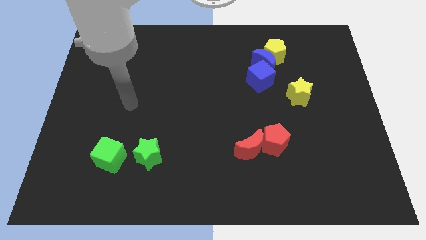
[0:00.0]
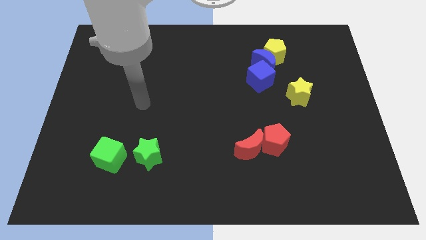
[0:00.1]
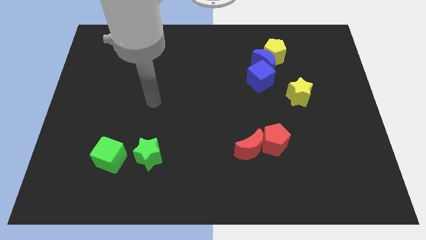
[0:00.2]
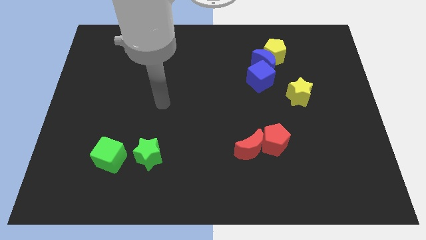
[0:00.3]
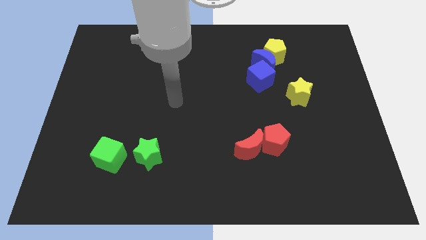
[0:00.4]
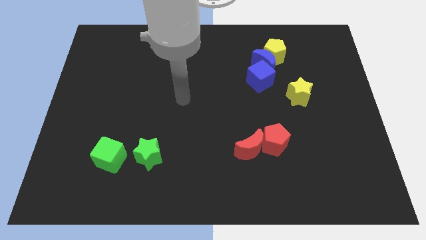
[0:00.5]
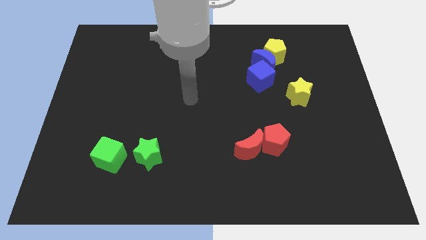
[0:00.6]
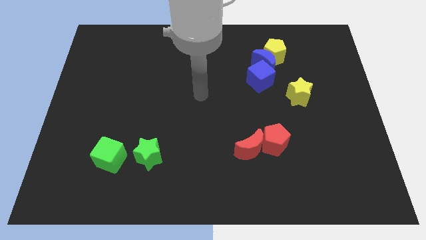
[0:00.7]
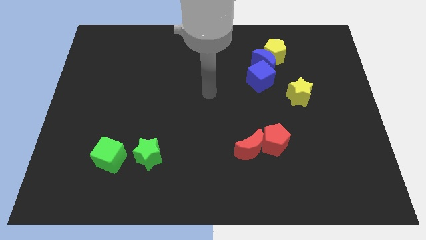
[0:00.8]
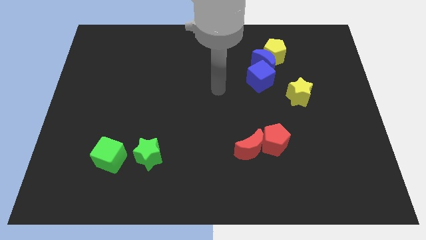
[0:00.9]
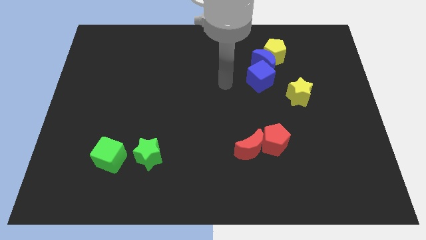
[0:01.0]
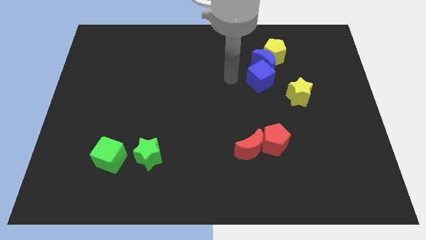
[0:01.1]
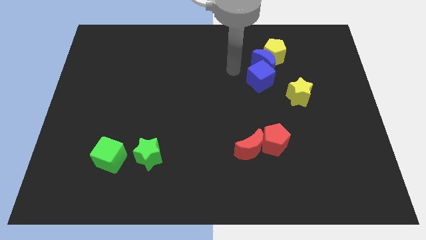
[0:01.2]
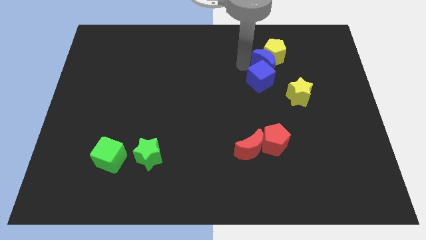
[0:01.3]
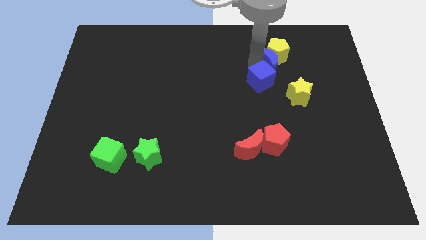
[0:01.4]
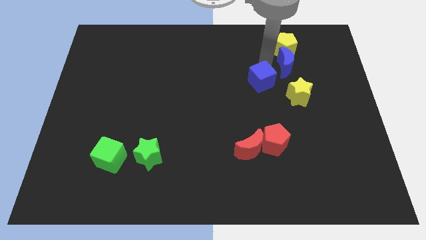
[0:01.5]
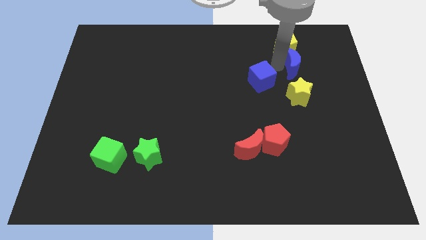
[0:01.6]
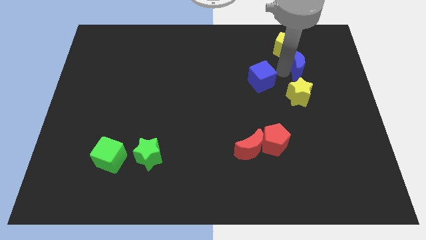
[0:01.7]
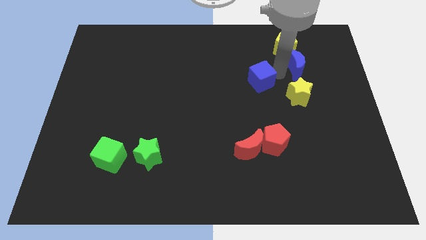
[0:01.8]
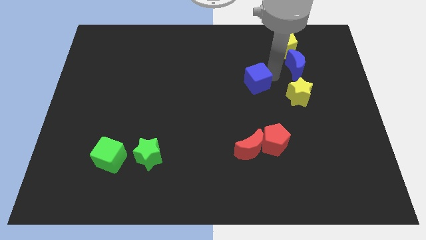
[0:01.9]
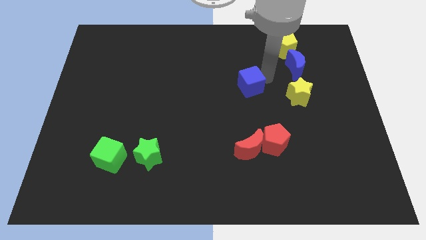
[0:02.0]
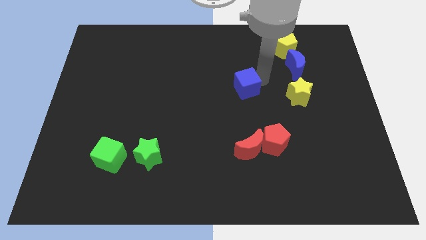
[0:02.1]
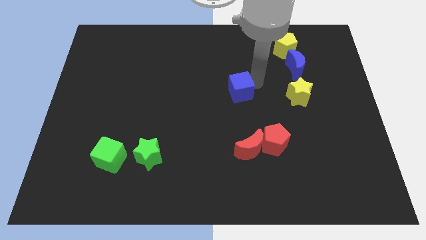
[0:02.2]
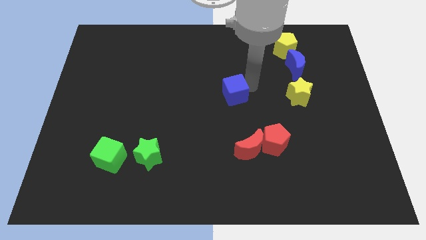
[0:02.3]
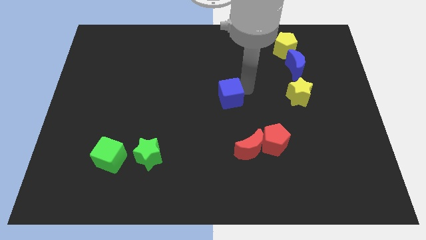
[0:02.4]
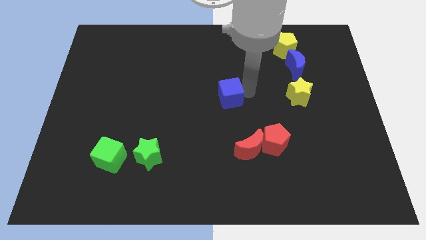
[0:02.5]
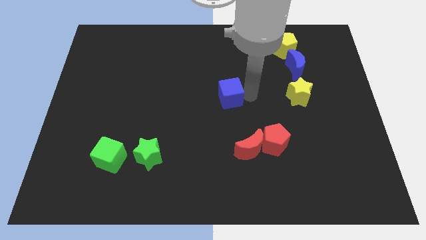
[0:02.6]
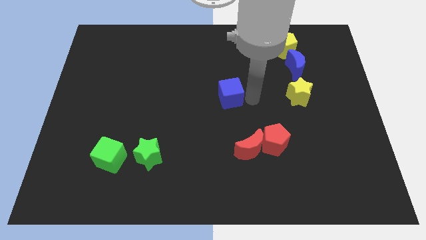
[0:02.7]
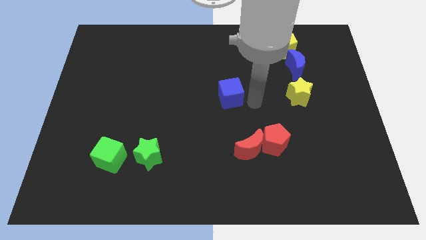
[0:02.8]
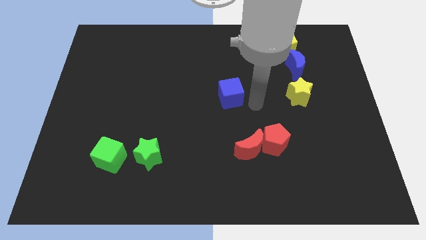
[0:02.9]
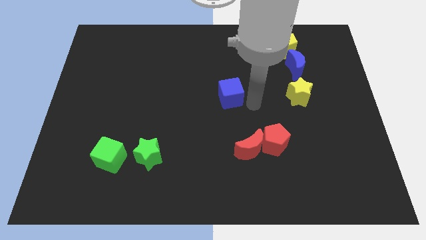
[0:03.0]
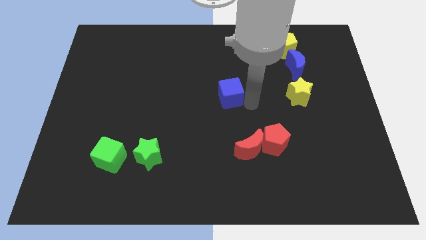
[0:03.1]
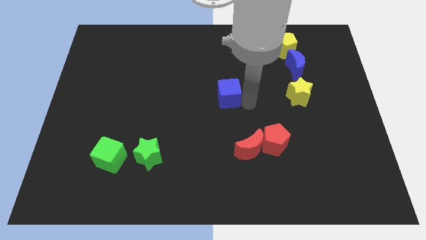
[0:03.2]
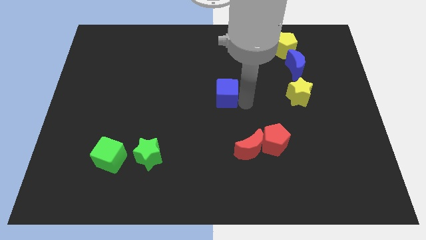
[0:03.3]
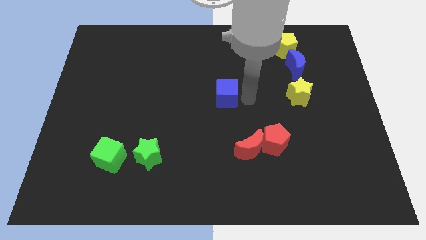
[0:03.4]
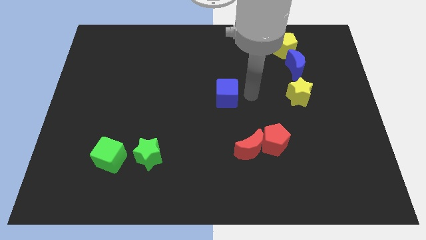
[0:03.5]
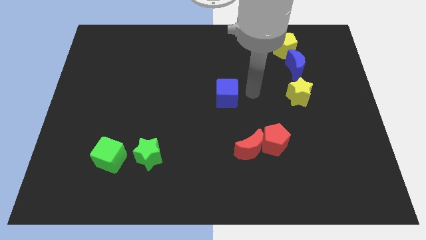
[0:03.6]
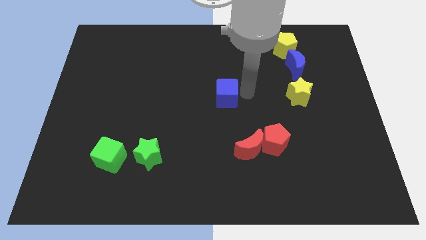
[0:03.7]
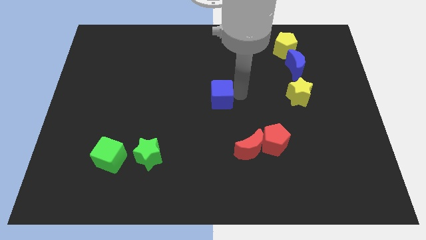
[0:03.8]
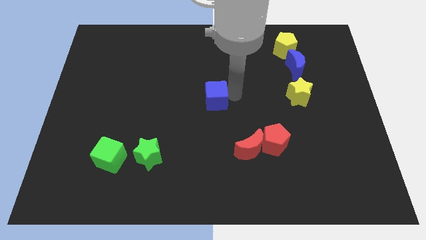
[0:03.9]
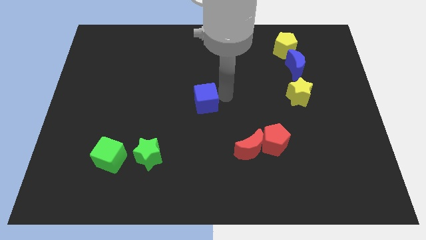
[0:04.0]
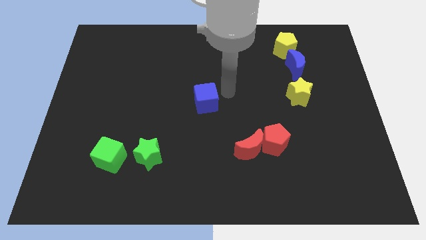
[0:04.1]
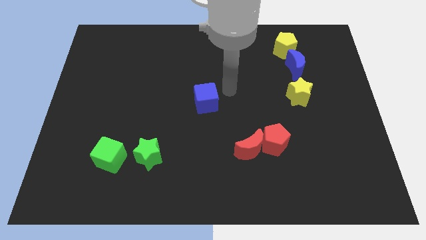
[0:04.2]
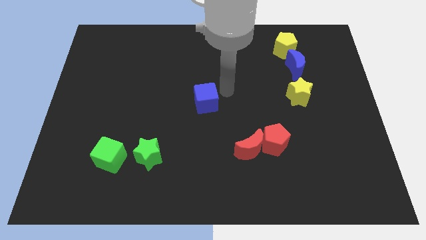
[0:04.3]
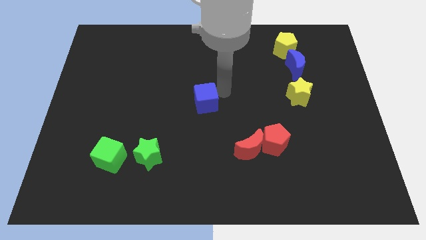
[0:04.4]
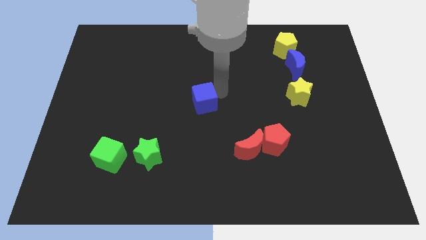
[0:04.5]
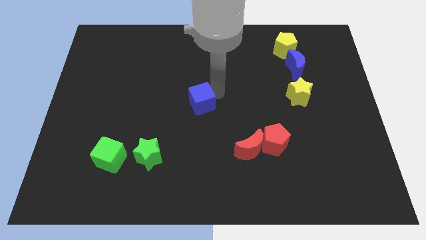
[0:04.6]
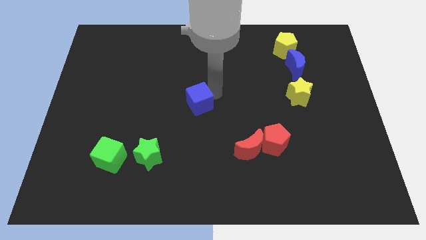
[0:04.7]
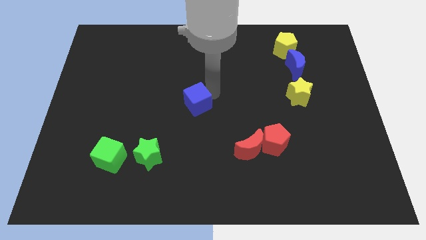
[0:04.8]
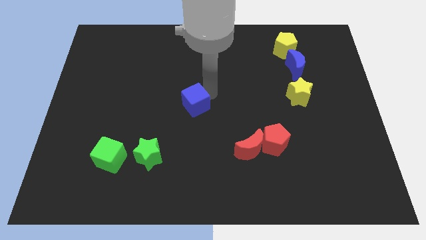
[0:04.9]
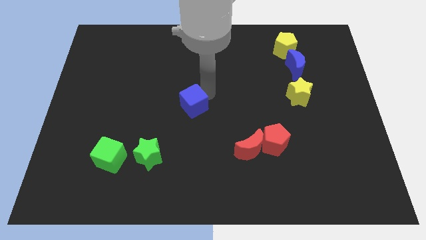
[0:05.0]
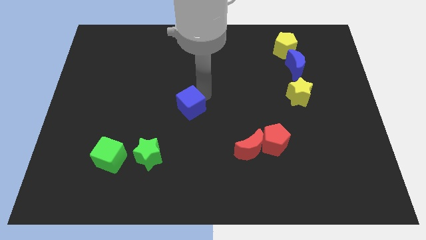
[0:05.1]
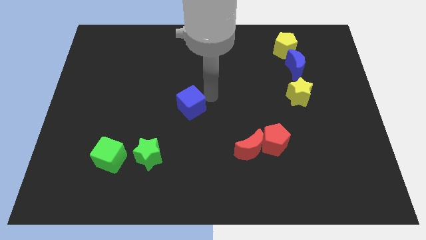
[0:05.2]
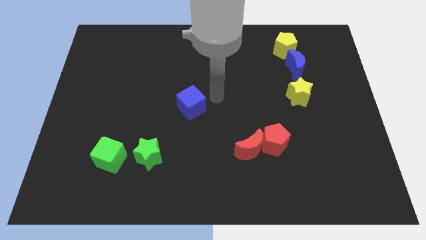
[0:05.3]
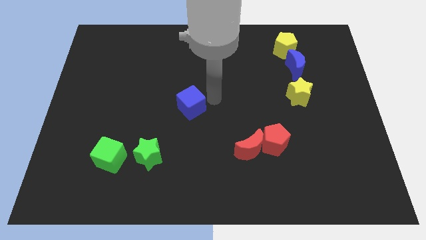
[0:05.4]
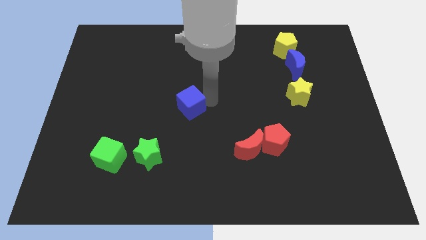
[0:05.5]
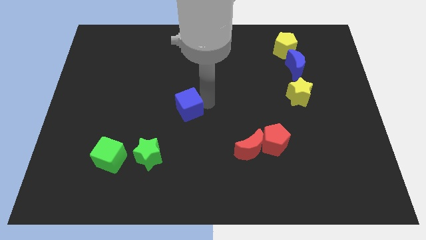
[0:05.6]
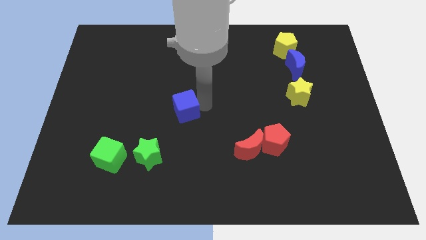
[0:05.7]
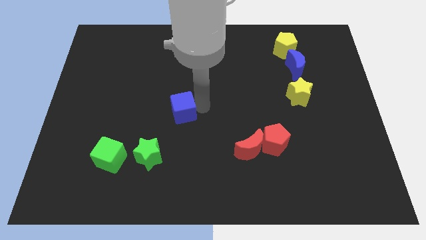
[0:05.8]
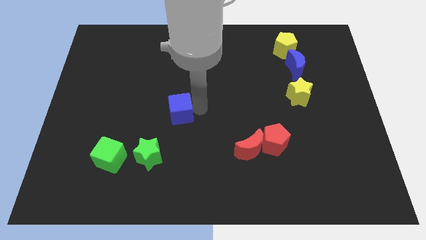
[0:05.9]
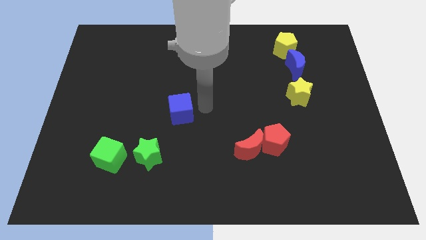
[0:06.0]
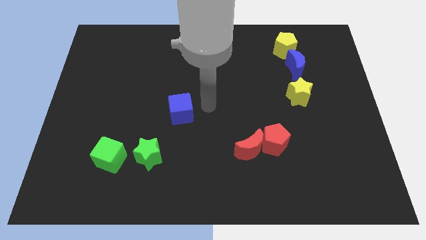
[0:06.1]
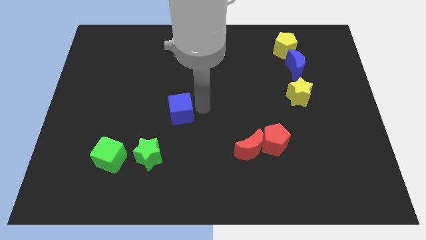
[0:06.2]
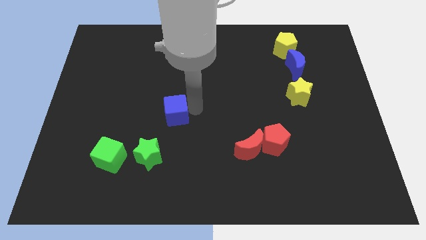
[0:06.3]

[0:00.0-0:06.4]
slide the blue cube above the green star

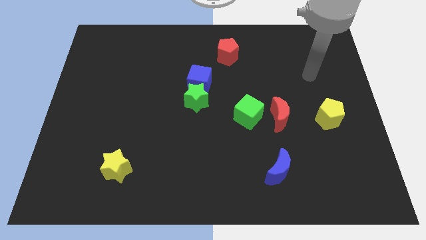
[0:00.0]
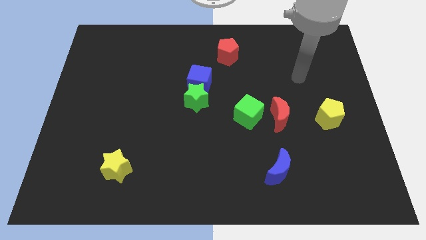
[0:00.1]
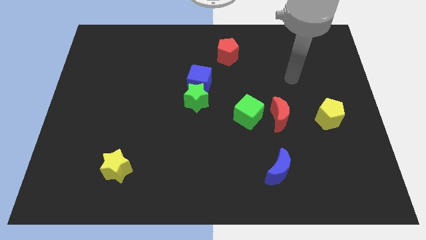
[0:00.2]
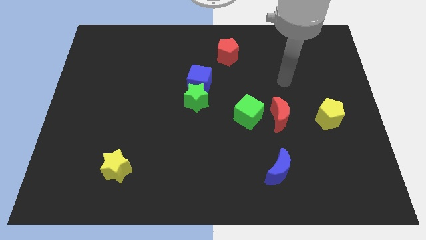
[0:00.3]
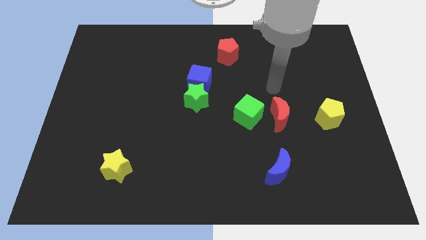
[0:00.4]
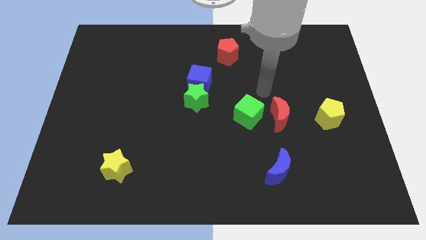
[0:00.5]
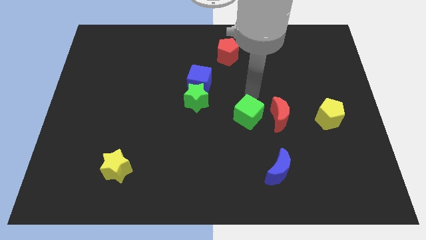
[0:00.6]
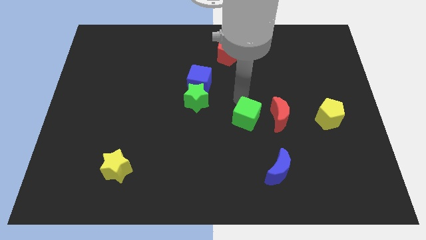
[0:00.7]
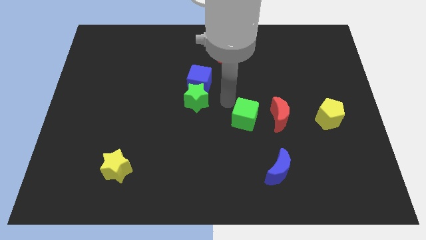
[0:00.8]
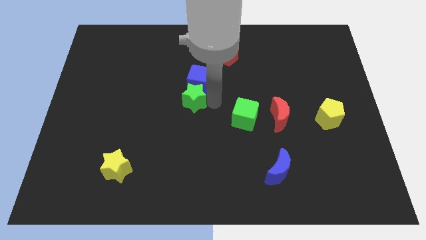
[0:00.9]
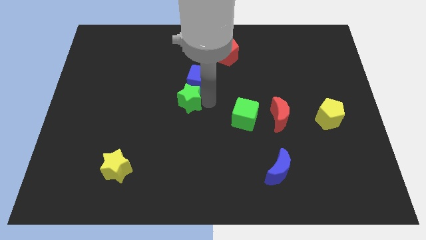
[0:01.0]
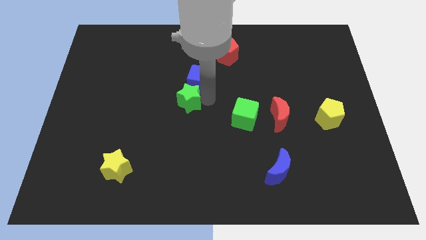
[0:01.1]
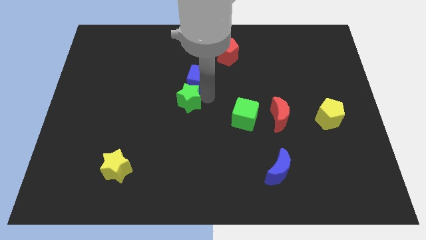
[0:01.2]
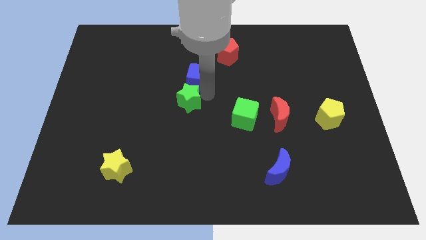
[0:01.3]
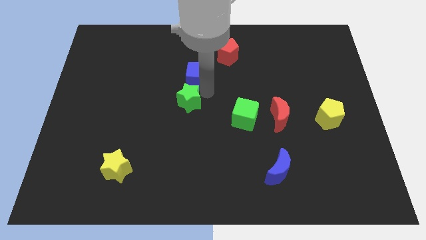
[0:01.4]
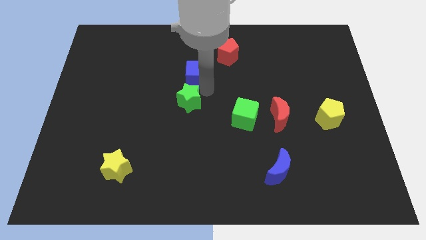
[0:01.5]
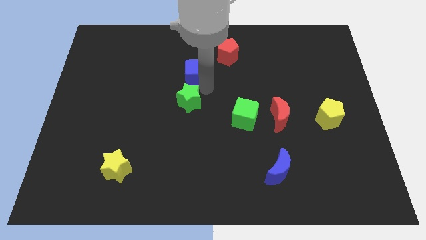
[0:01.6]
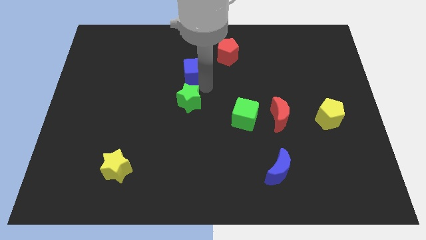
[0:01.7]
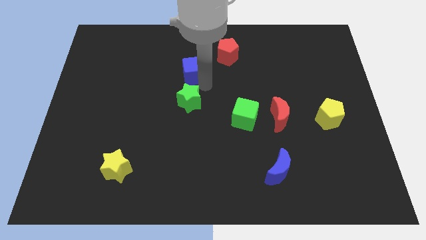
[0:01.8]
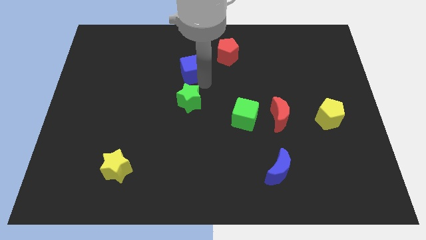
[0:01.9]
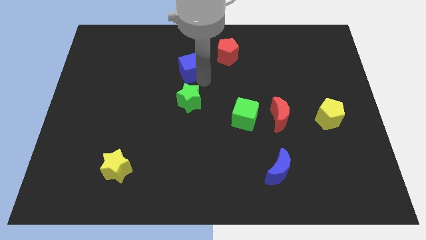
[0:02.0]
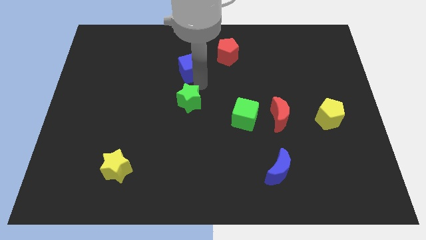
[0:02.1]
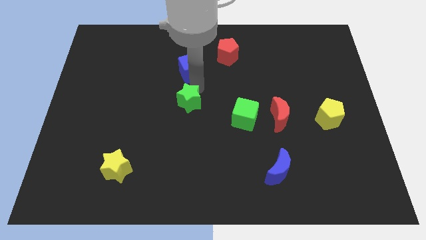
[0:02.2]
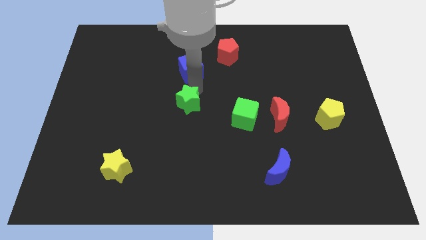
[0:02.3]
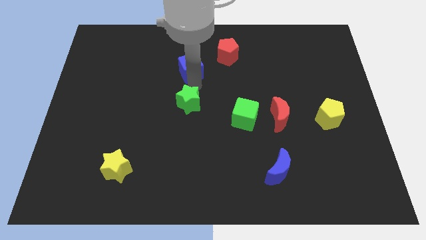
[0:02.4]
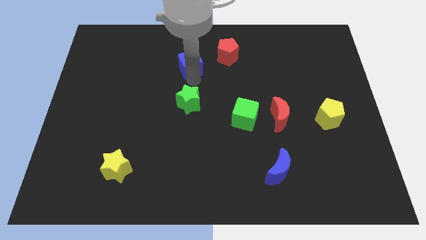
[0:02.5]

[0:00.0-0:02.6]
push the blue cube just left of the red pentagon
